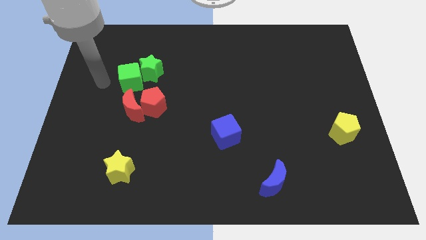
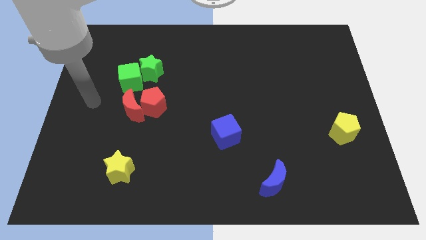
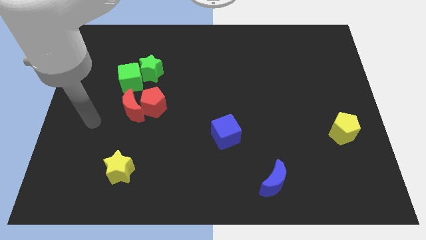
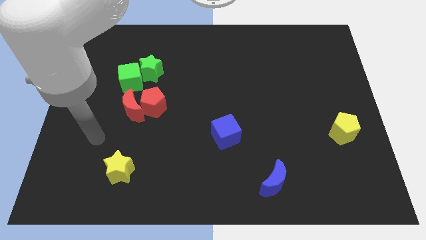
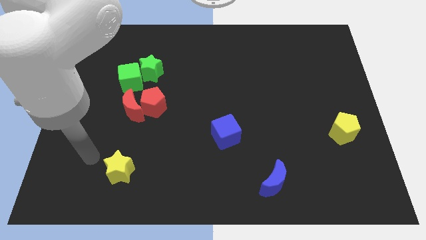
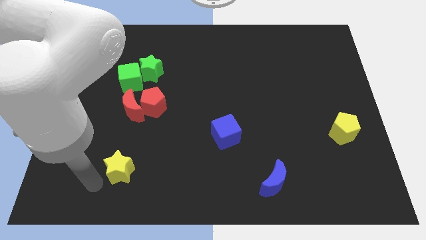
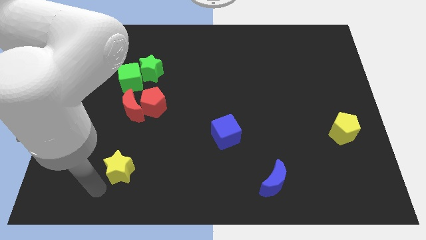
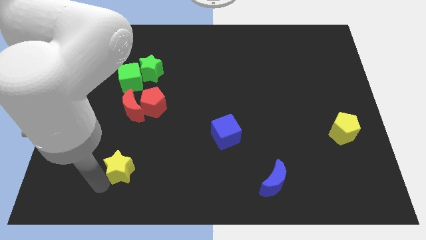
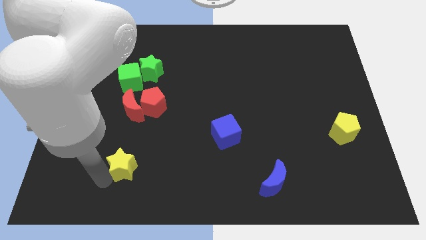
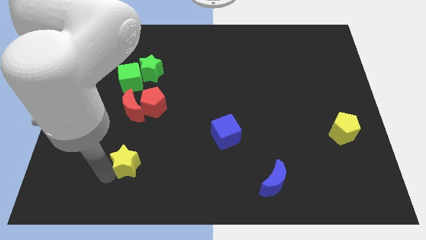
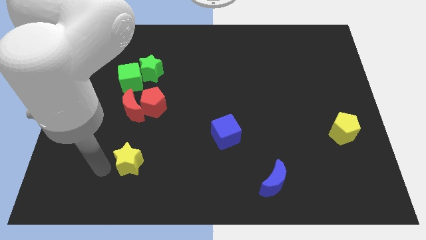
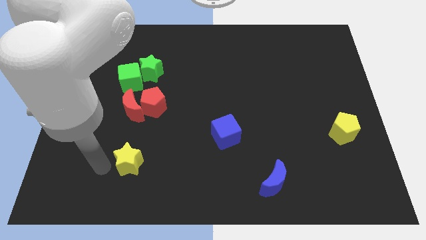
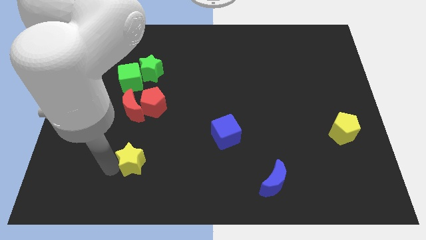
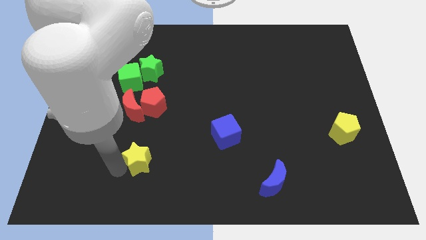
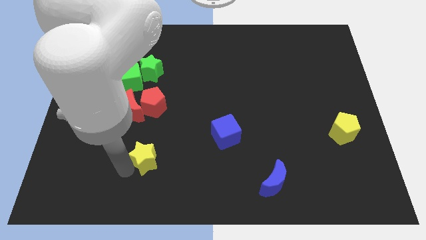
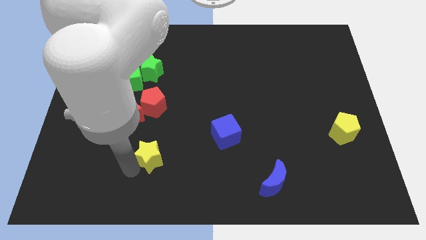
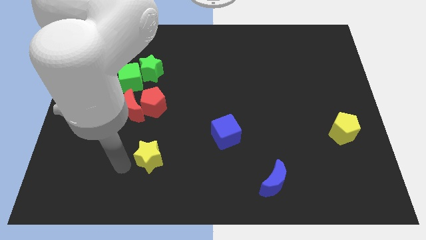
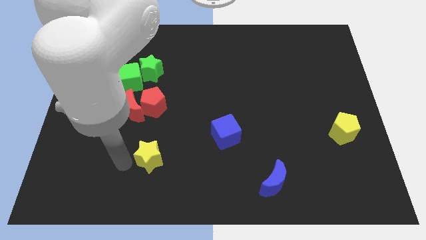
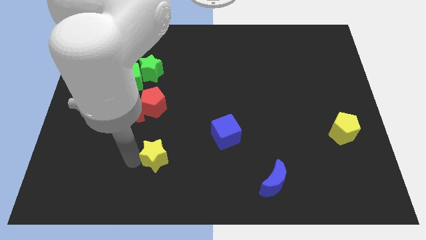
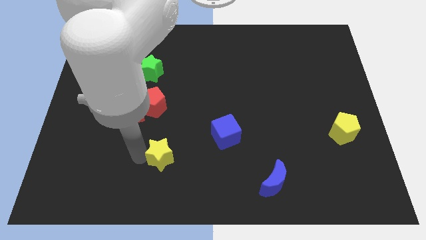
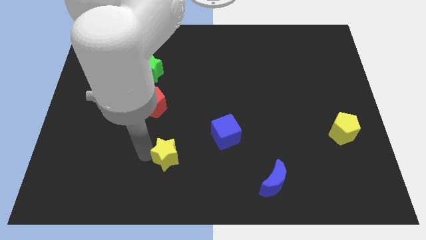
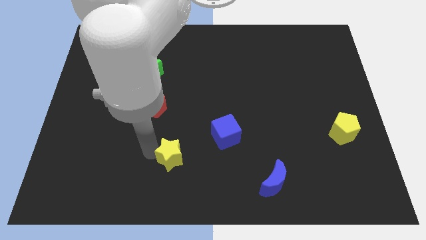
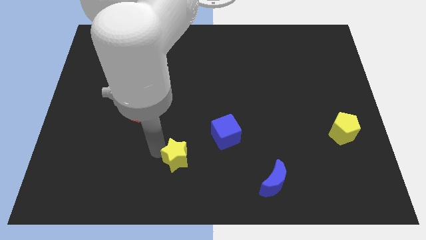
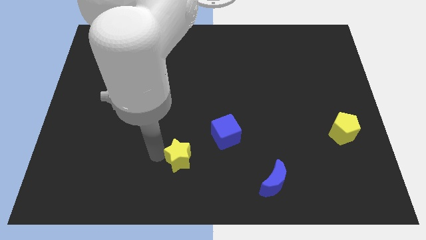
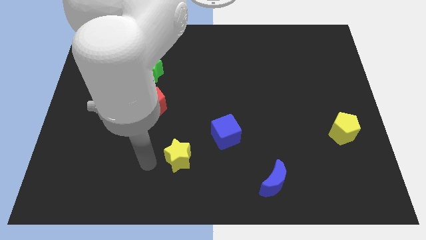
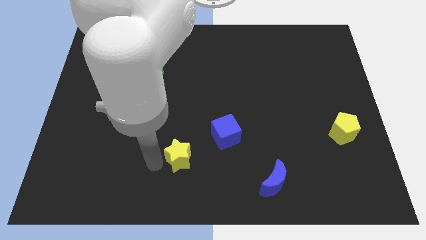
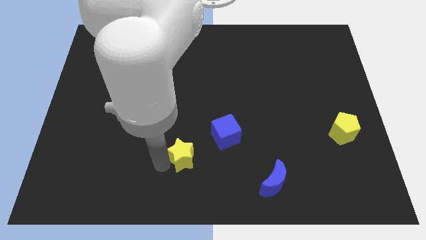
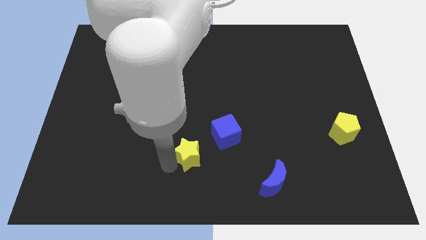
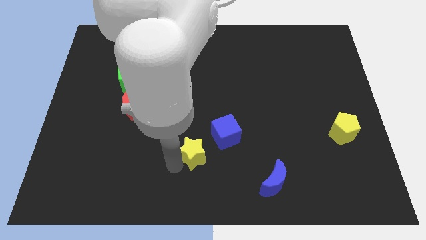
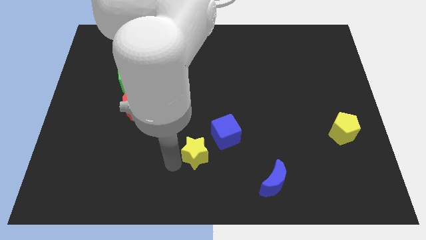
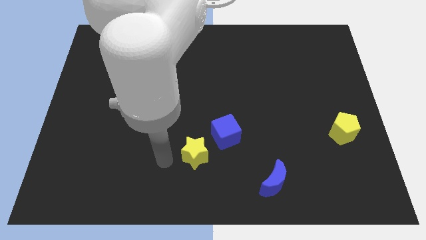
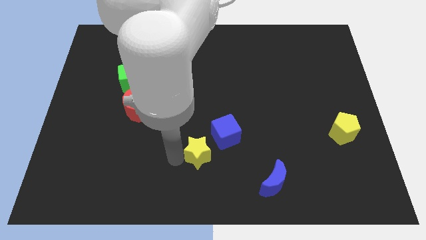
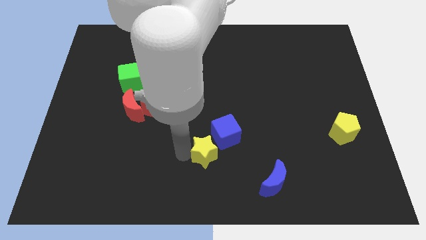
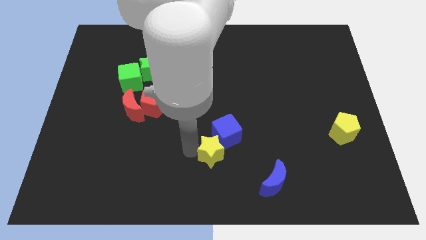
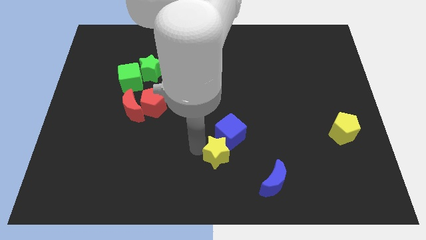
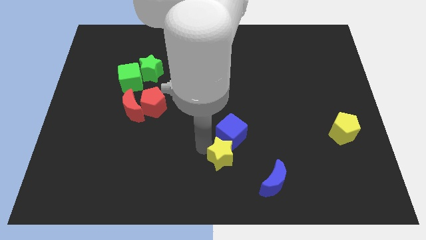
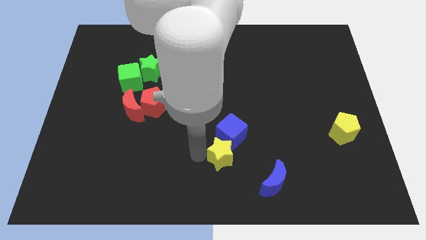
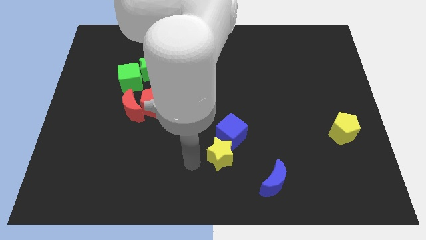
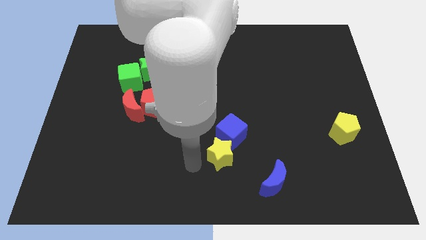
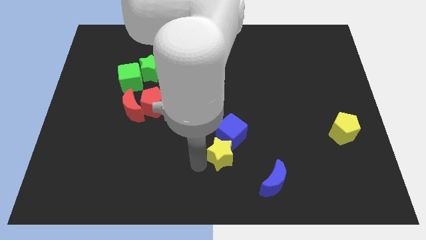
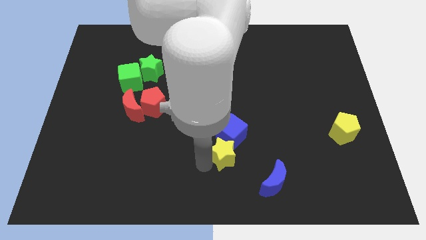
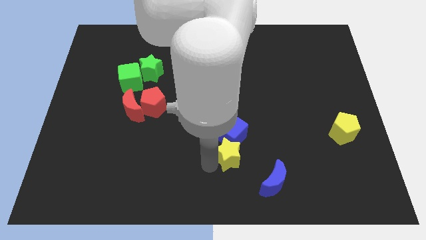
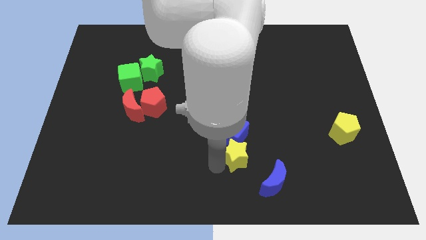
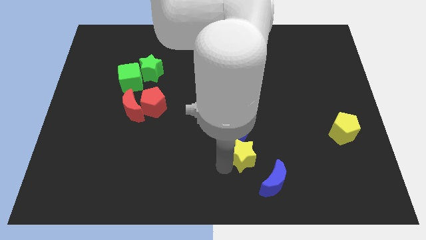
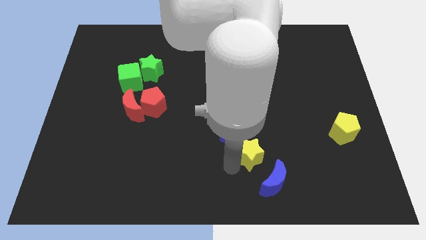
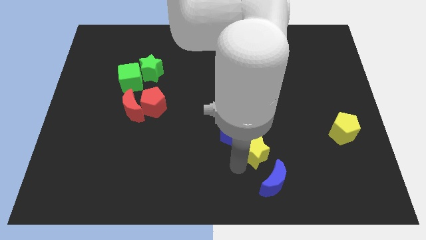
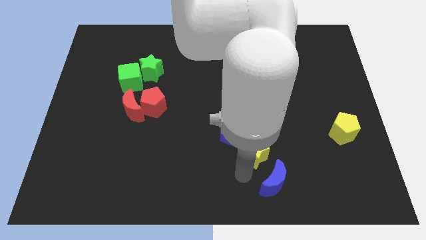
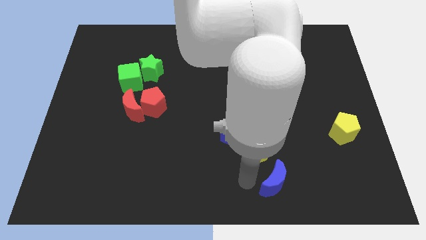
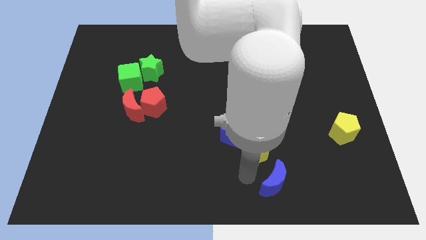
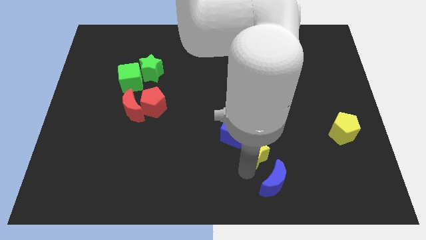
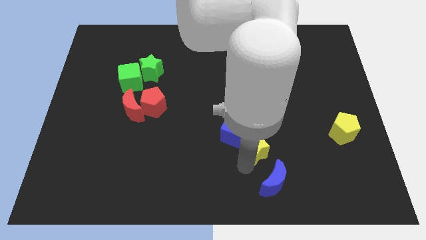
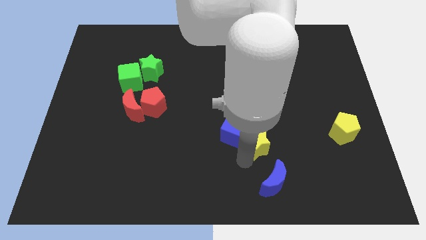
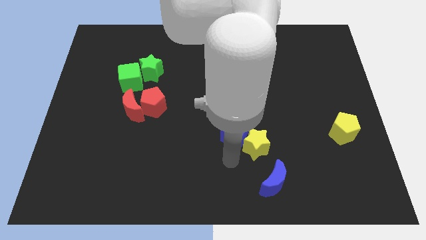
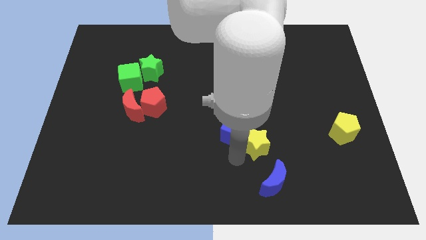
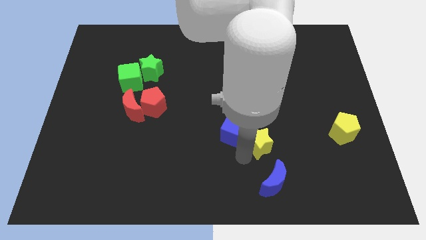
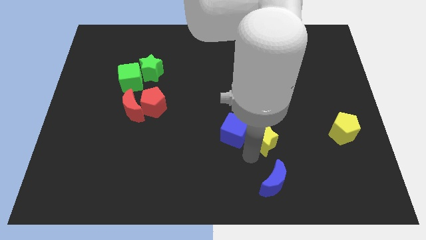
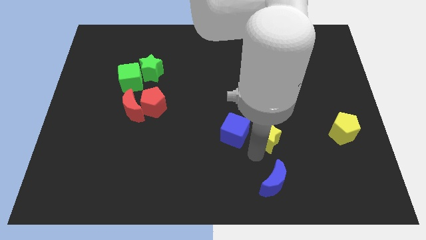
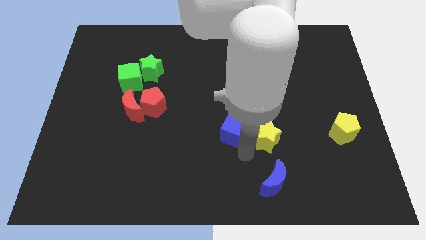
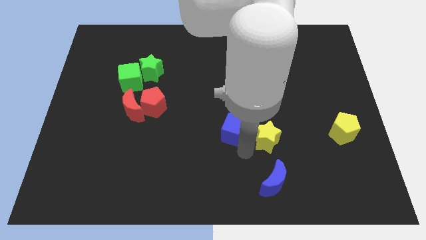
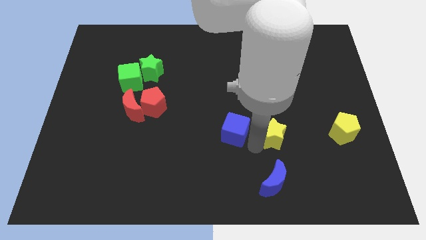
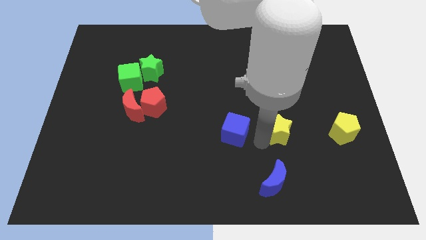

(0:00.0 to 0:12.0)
put the yellow star to the left side of the yellow pentagon

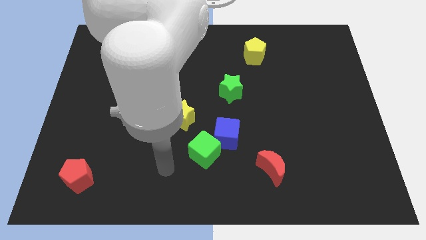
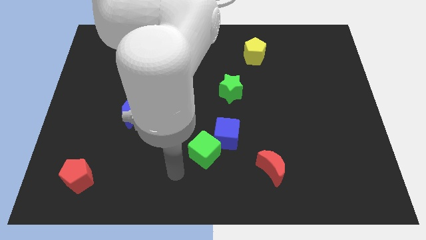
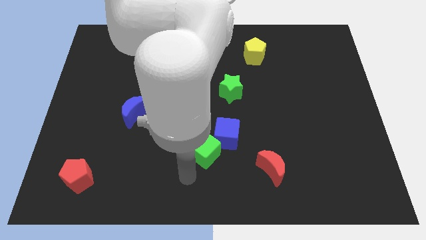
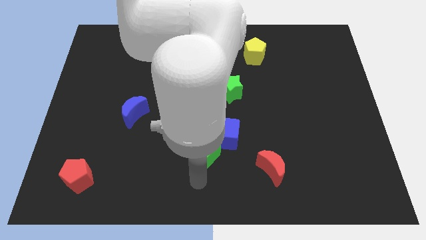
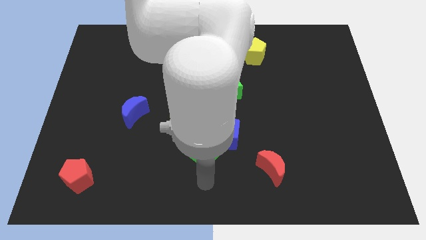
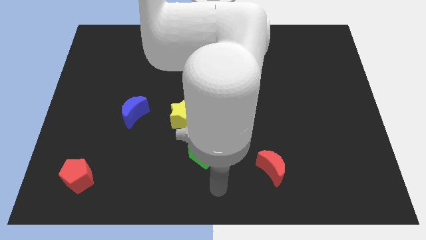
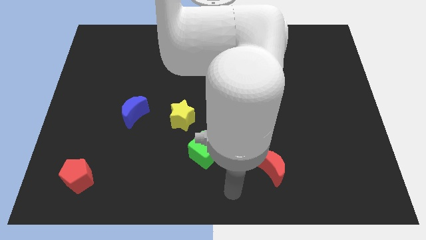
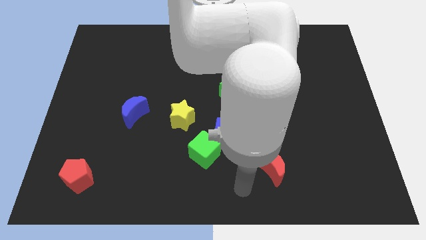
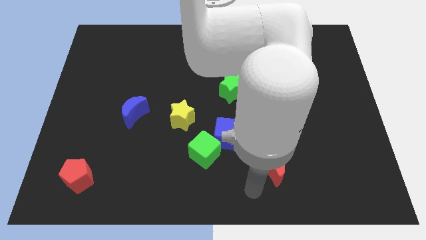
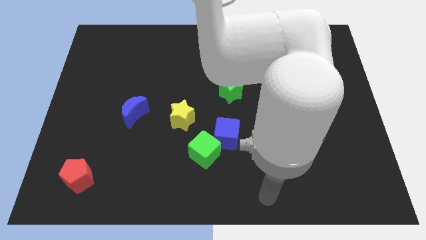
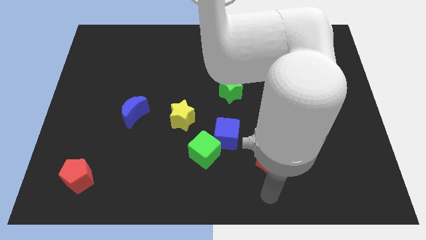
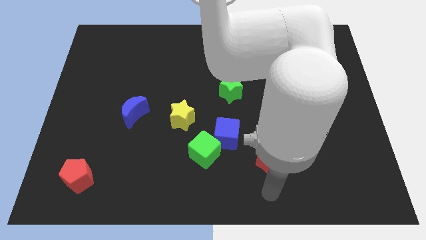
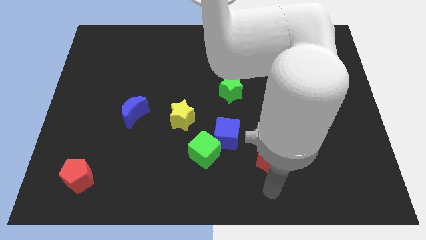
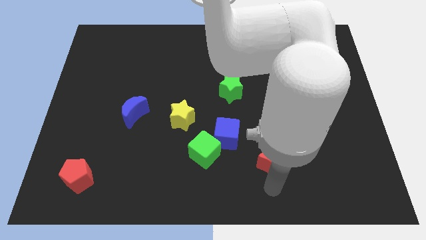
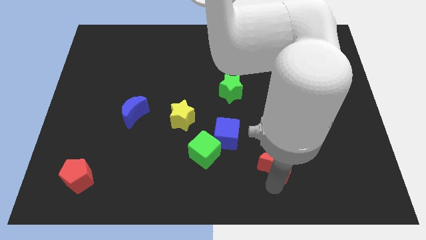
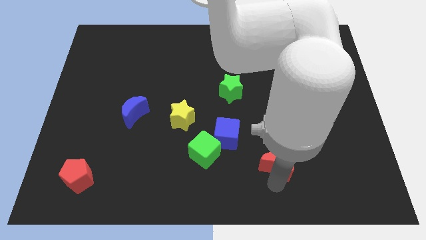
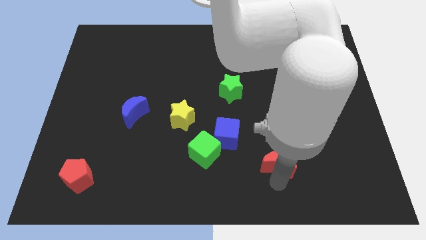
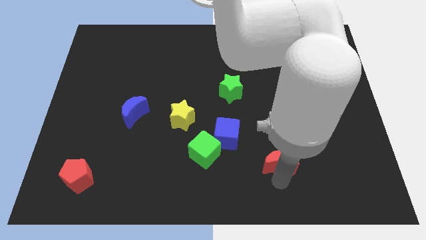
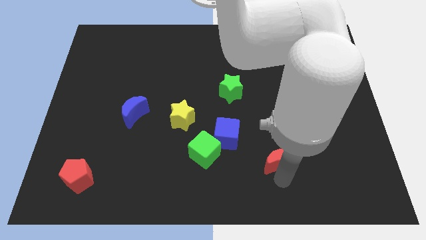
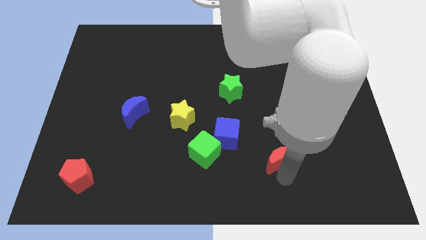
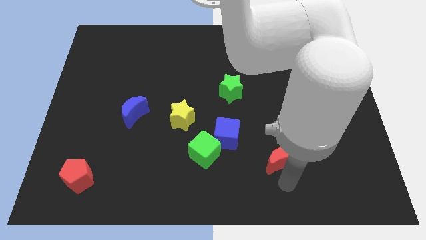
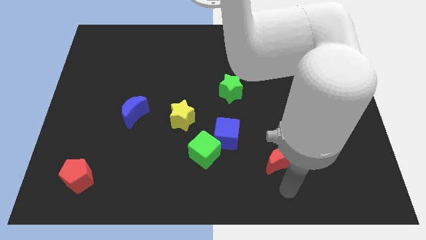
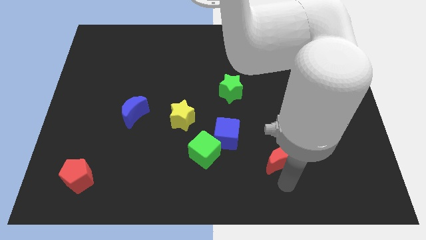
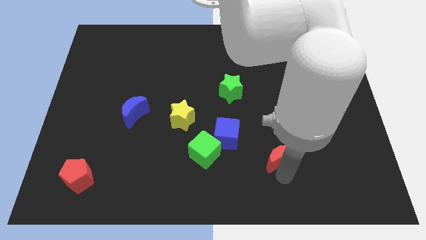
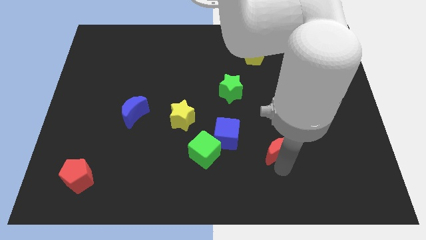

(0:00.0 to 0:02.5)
slide the red moon right of the blue cube
